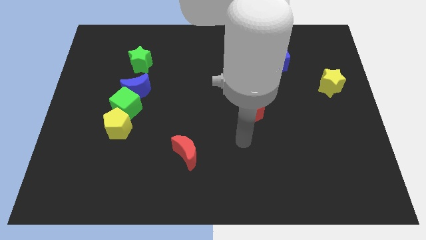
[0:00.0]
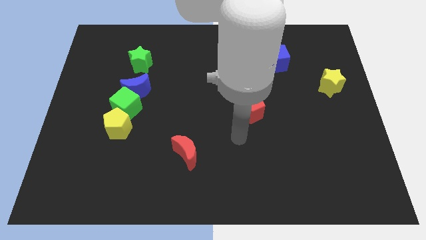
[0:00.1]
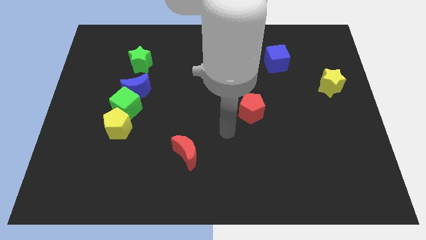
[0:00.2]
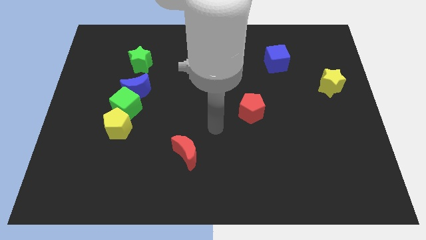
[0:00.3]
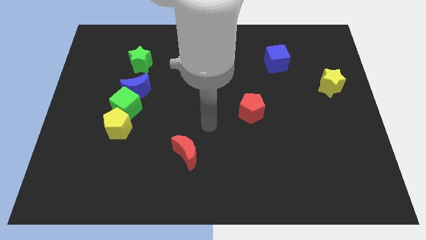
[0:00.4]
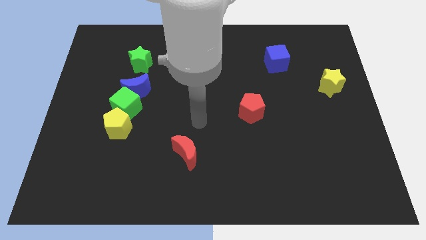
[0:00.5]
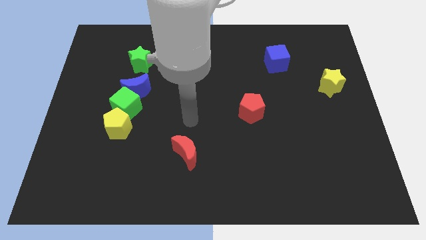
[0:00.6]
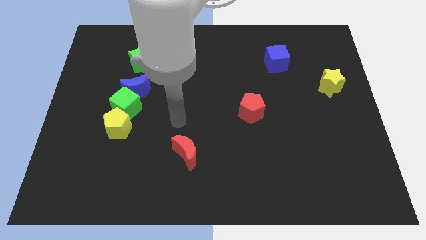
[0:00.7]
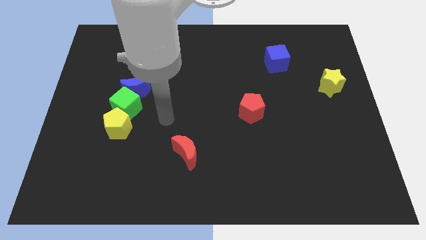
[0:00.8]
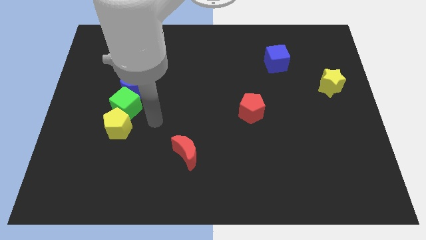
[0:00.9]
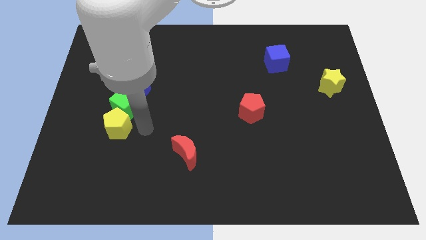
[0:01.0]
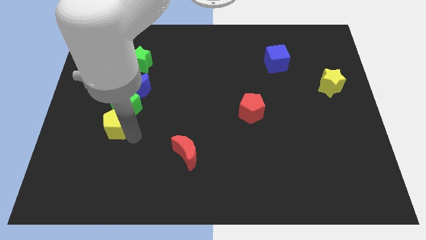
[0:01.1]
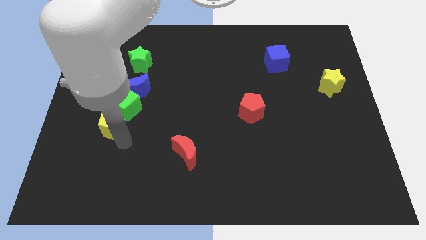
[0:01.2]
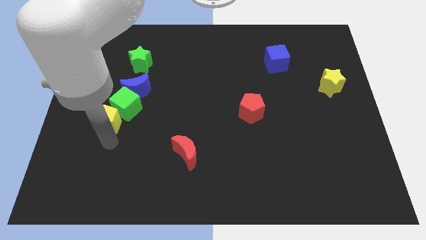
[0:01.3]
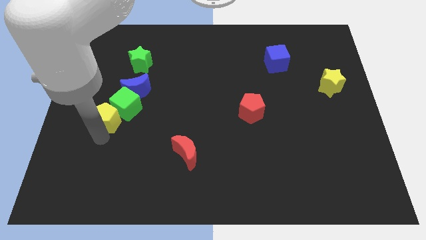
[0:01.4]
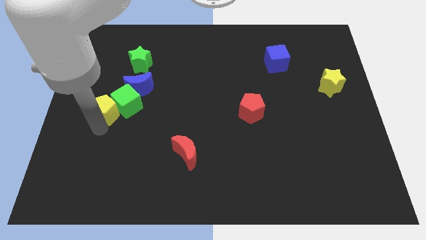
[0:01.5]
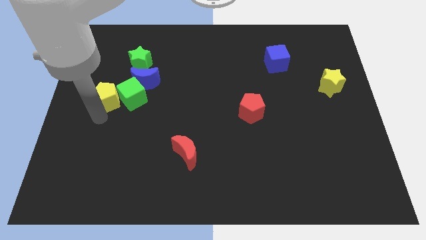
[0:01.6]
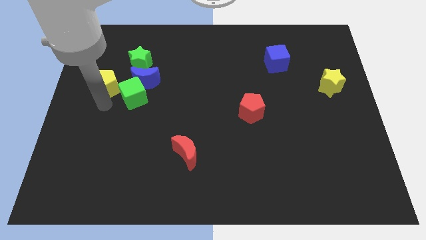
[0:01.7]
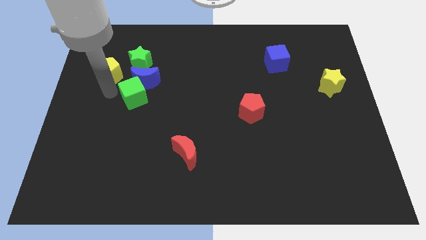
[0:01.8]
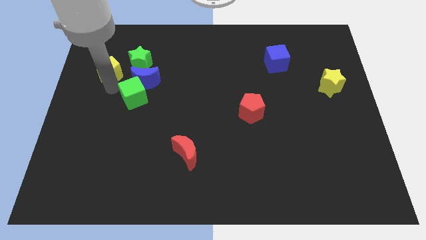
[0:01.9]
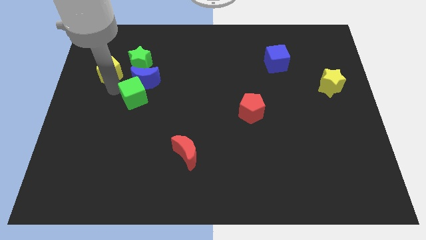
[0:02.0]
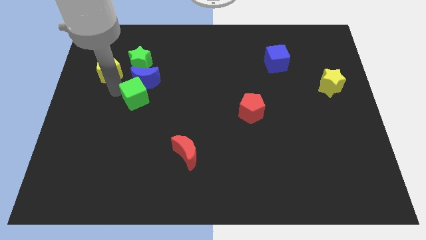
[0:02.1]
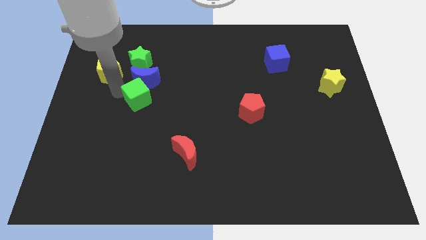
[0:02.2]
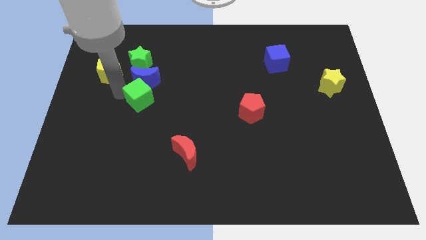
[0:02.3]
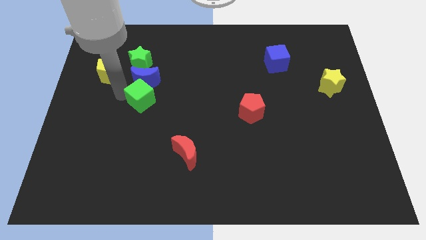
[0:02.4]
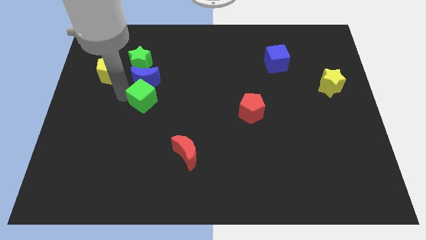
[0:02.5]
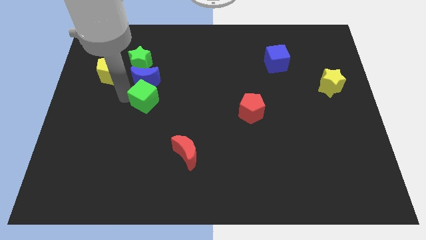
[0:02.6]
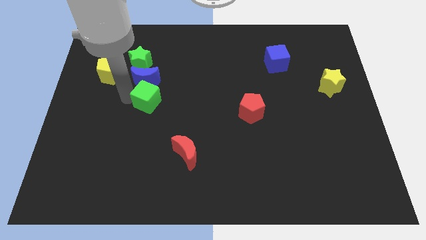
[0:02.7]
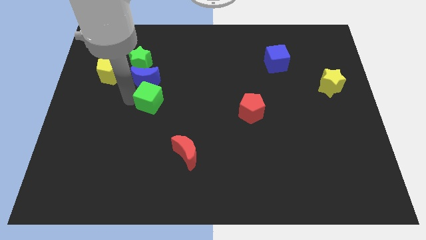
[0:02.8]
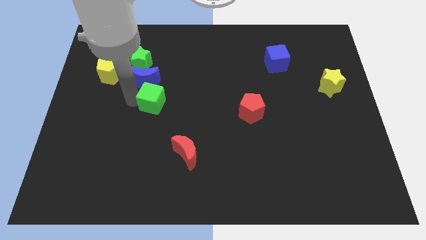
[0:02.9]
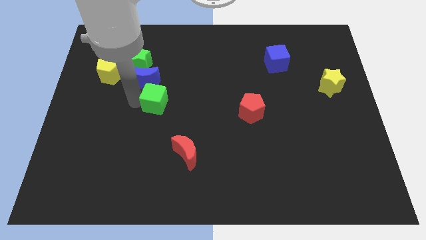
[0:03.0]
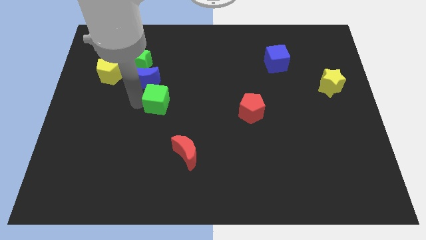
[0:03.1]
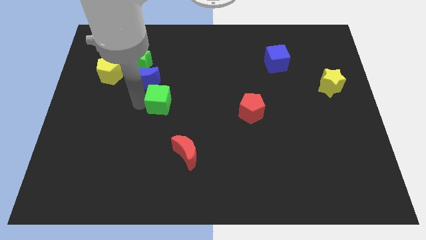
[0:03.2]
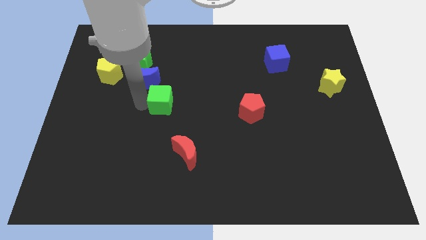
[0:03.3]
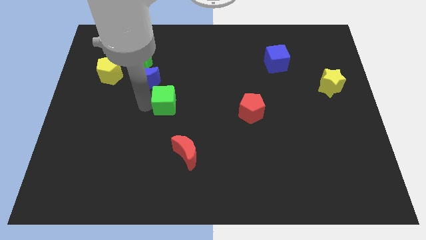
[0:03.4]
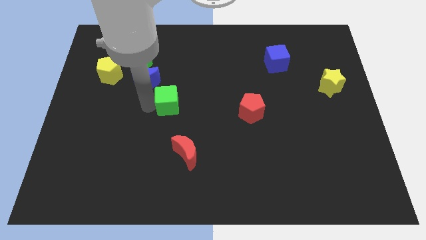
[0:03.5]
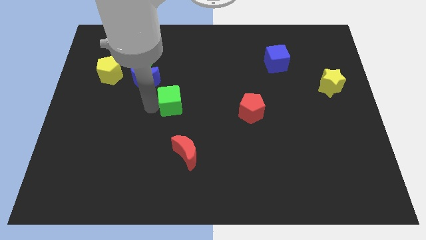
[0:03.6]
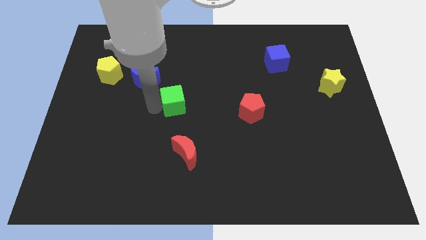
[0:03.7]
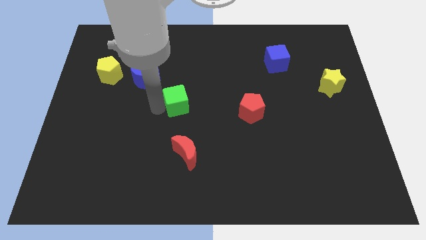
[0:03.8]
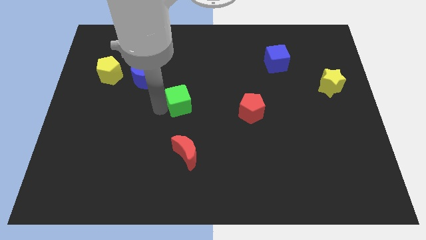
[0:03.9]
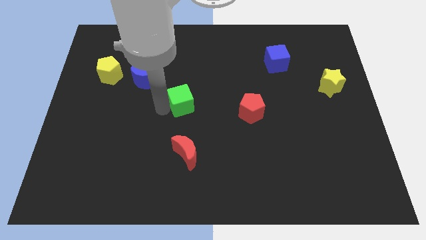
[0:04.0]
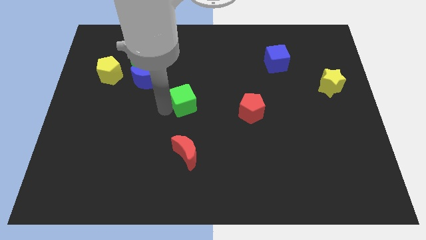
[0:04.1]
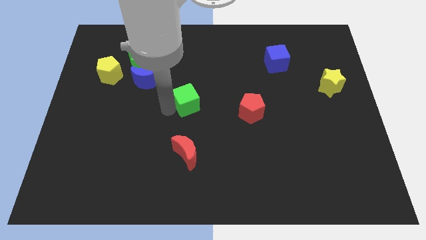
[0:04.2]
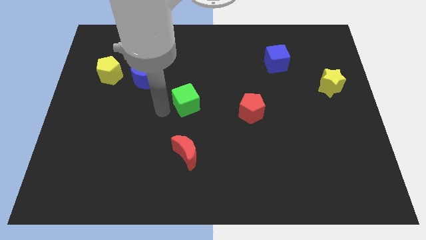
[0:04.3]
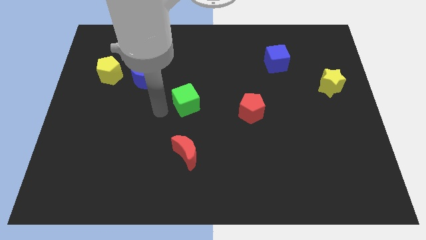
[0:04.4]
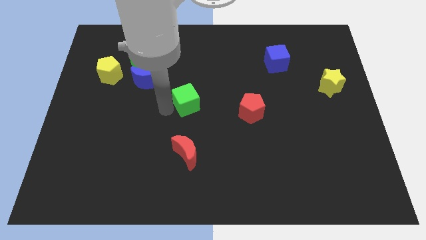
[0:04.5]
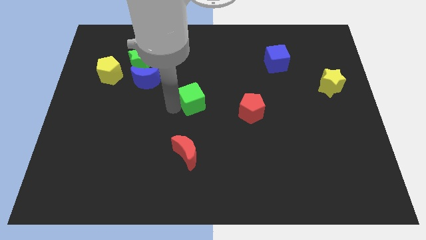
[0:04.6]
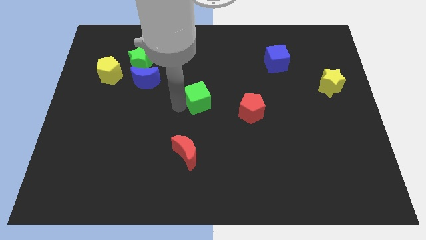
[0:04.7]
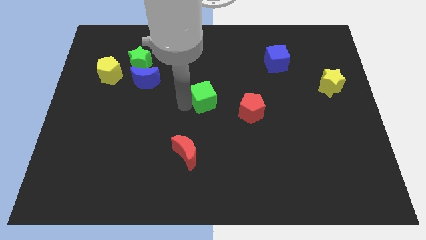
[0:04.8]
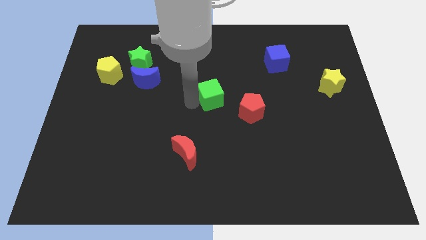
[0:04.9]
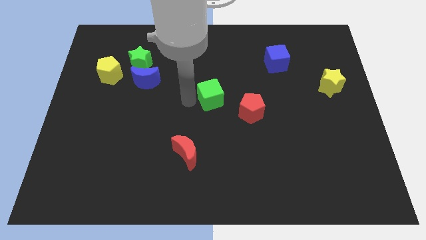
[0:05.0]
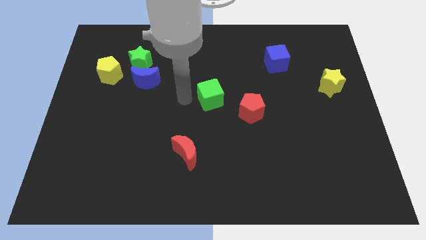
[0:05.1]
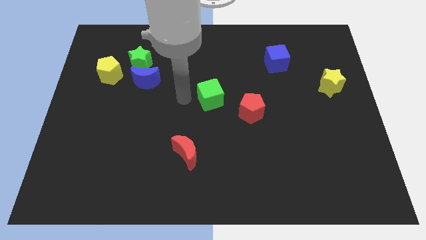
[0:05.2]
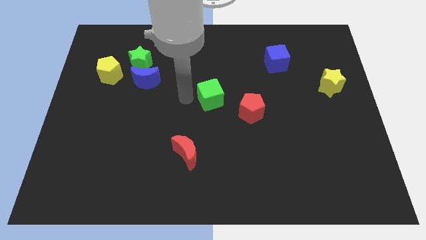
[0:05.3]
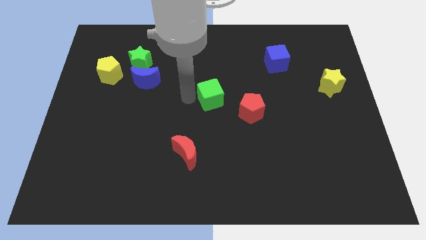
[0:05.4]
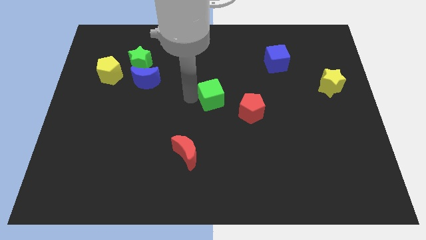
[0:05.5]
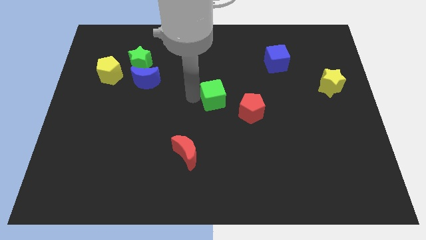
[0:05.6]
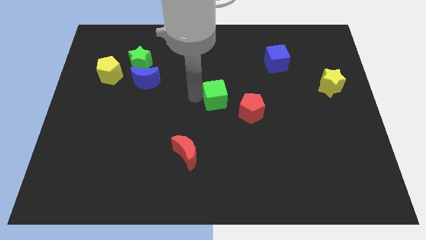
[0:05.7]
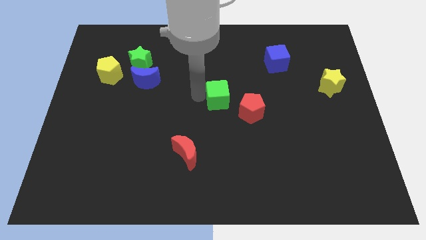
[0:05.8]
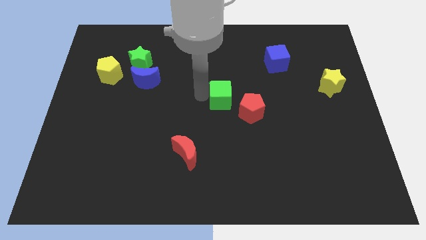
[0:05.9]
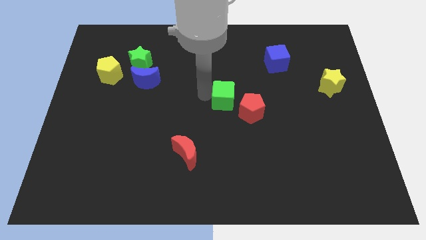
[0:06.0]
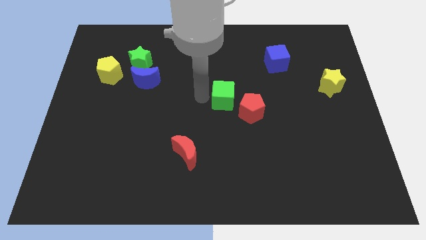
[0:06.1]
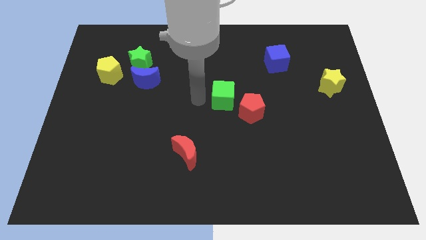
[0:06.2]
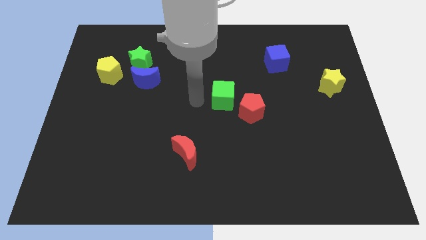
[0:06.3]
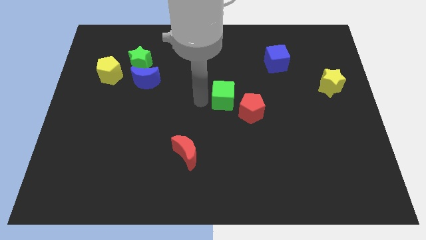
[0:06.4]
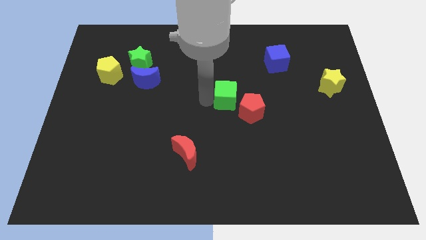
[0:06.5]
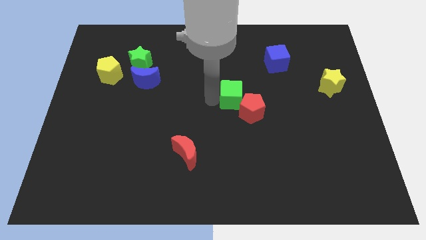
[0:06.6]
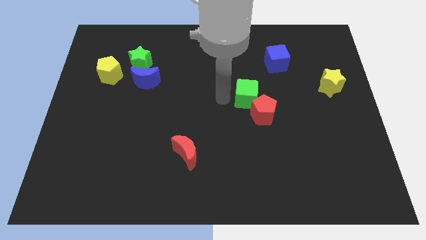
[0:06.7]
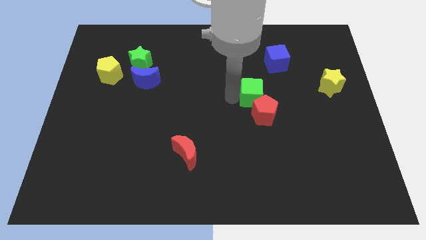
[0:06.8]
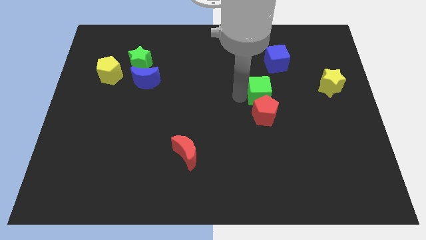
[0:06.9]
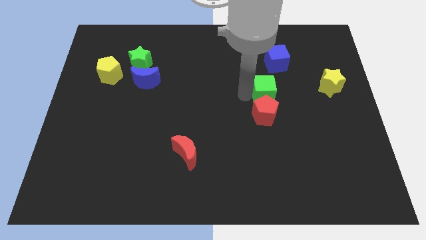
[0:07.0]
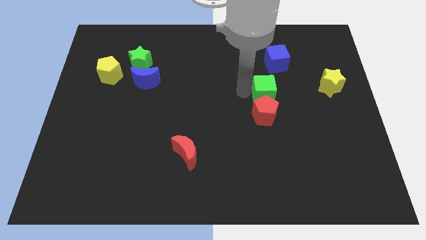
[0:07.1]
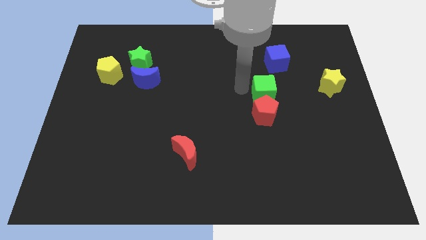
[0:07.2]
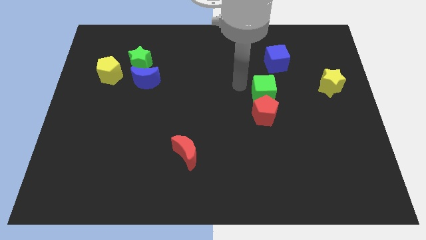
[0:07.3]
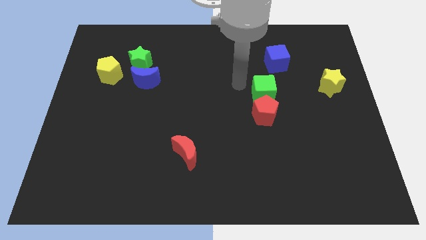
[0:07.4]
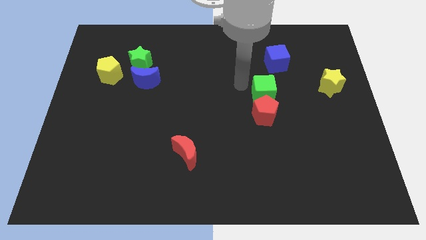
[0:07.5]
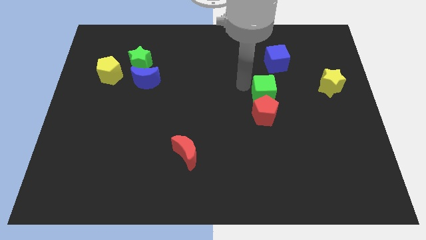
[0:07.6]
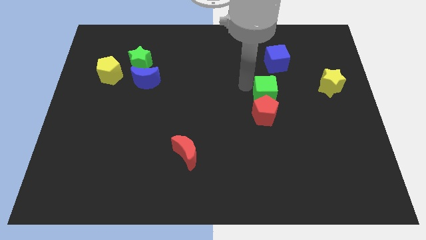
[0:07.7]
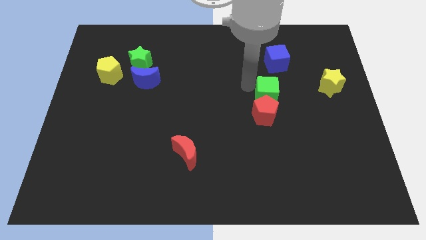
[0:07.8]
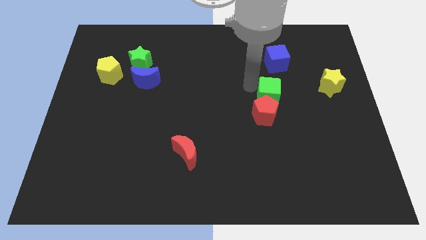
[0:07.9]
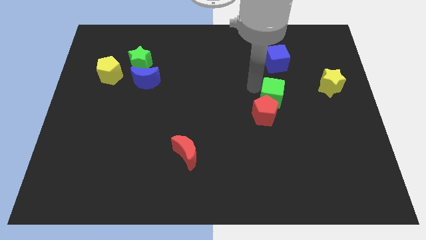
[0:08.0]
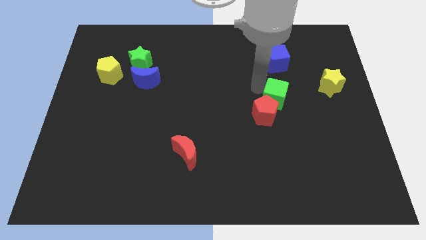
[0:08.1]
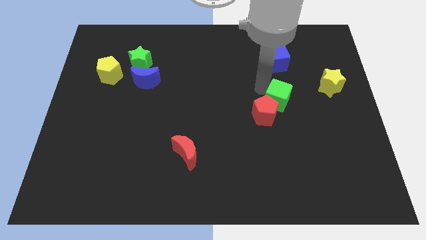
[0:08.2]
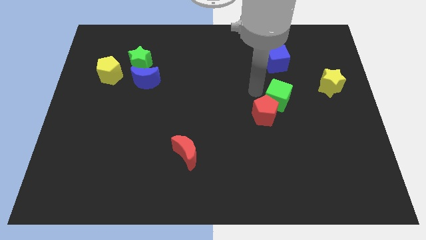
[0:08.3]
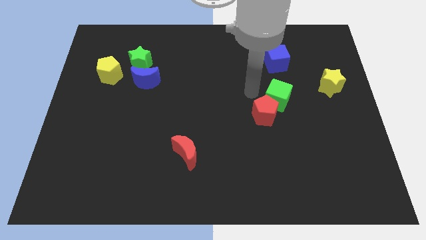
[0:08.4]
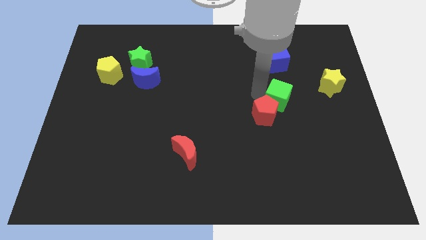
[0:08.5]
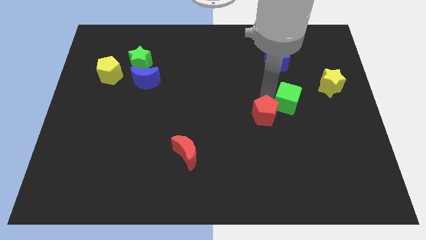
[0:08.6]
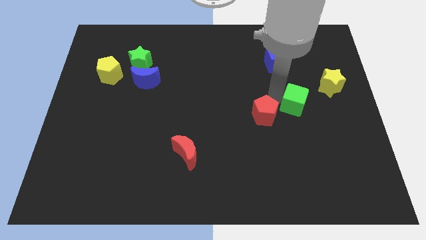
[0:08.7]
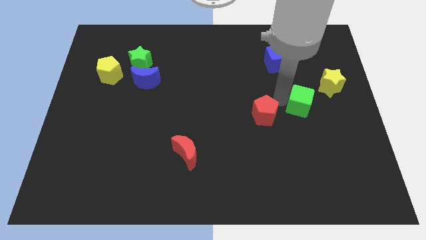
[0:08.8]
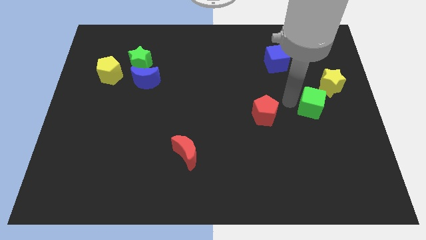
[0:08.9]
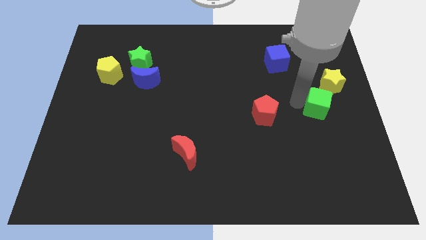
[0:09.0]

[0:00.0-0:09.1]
push the green cube to the bottom of the yellow star
